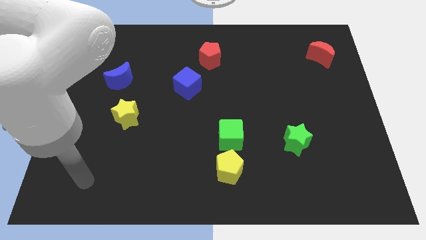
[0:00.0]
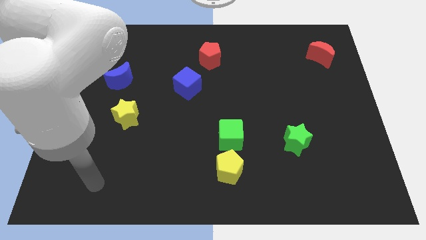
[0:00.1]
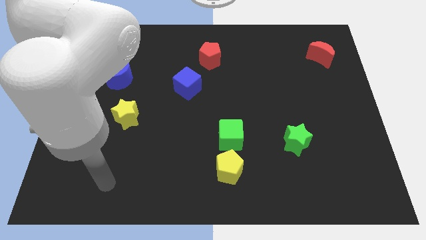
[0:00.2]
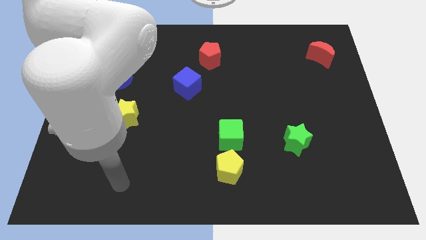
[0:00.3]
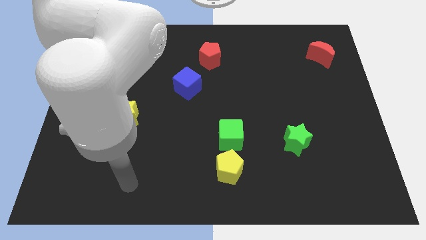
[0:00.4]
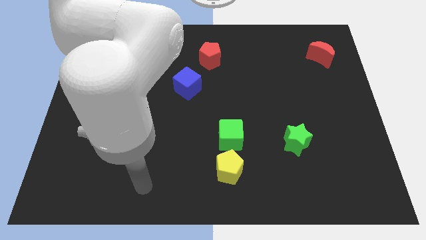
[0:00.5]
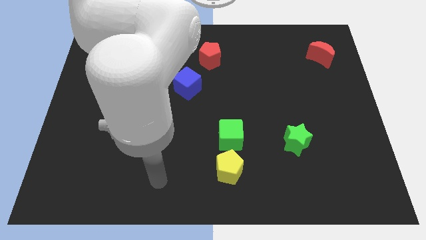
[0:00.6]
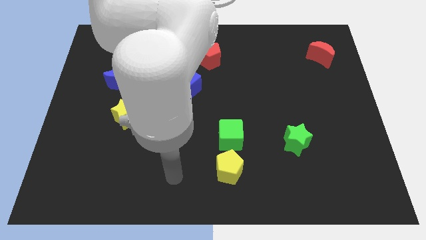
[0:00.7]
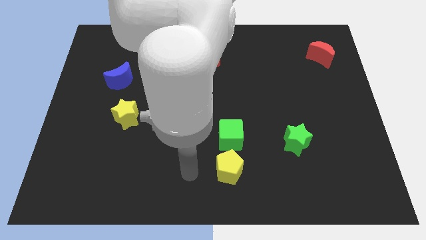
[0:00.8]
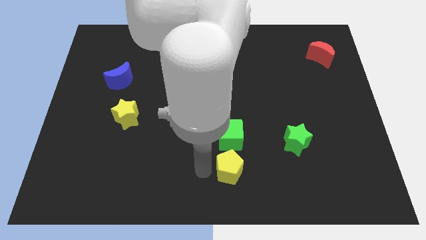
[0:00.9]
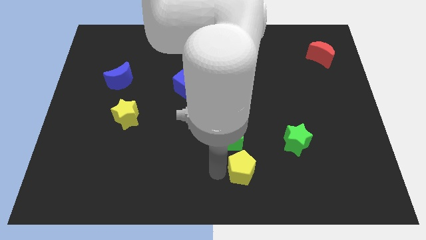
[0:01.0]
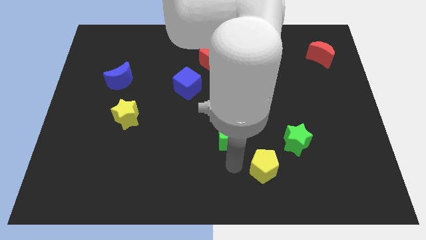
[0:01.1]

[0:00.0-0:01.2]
separate the green cube from the yellow pentagon

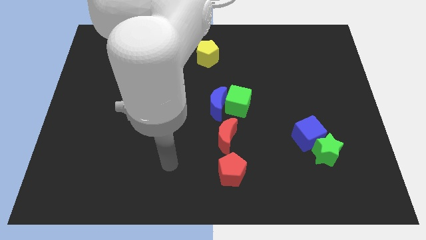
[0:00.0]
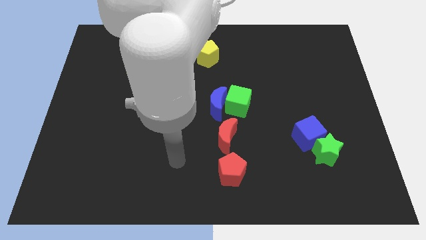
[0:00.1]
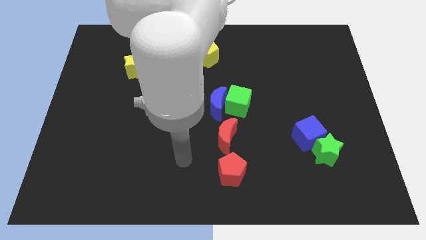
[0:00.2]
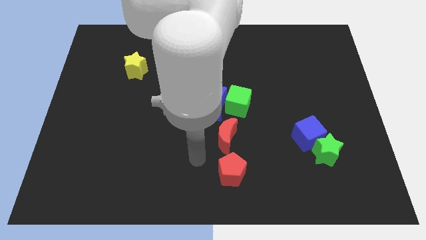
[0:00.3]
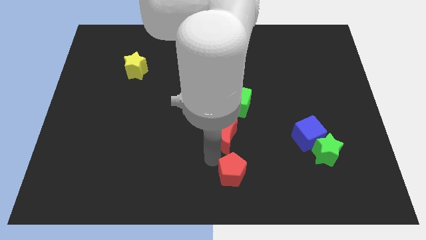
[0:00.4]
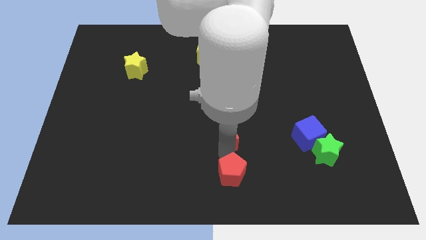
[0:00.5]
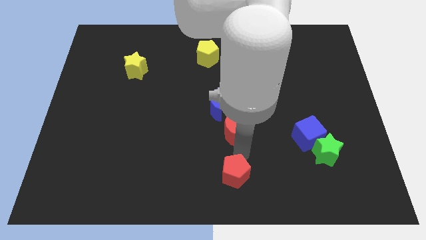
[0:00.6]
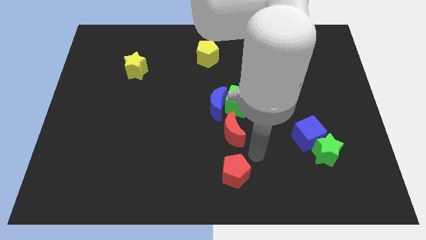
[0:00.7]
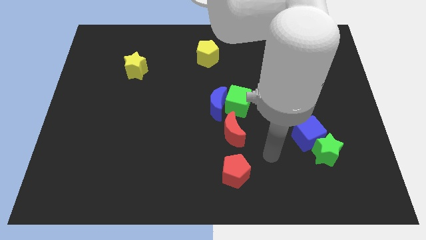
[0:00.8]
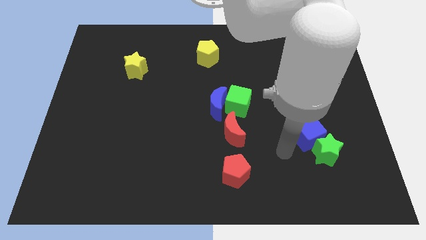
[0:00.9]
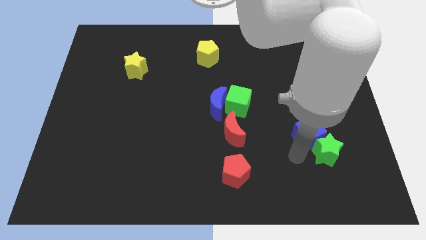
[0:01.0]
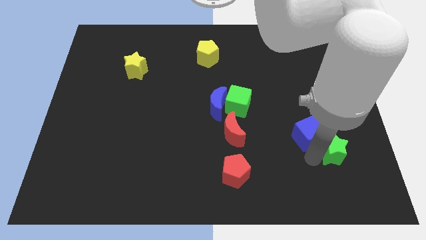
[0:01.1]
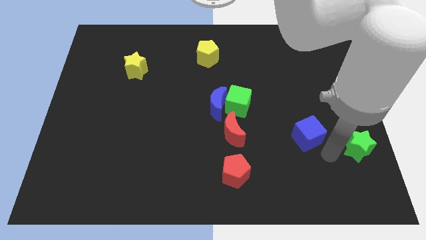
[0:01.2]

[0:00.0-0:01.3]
pull the blue cube apart from the green star

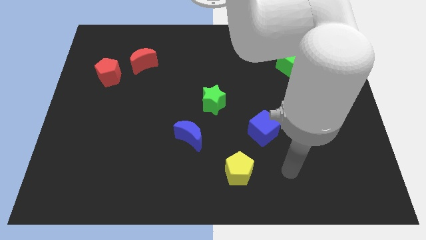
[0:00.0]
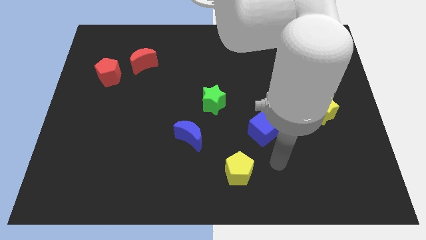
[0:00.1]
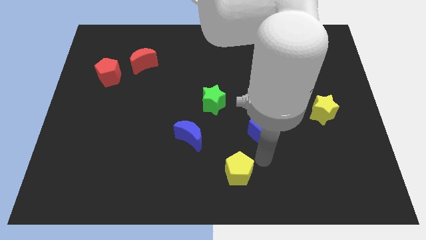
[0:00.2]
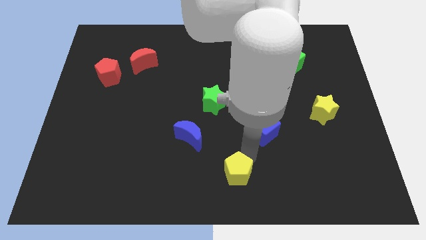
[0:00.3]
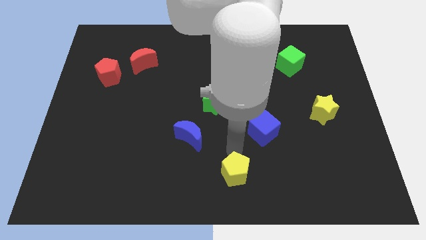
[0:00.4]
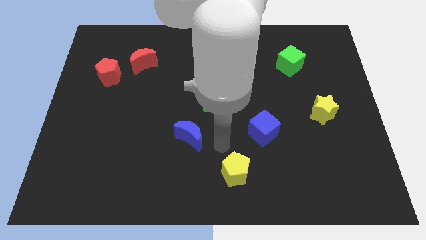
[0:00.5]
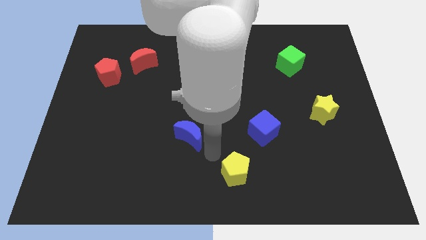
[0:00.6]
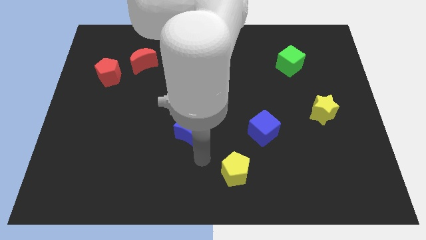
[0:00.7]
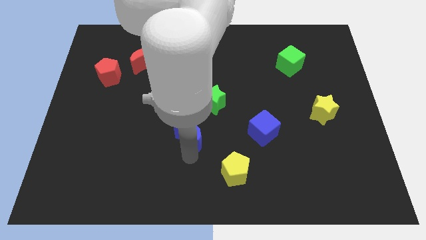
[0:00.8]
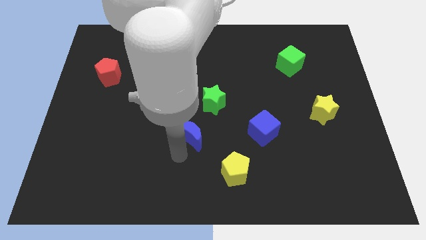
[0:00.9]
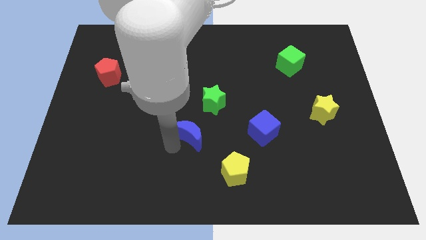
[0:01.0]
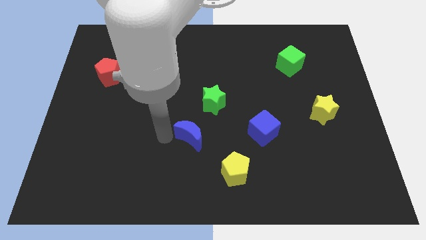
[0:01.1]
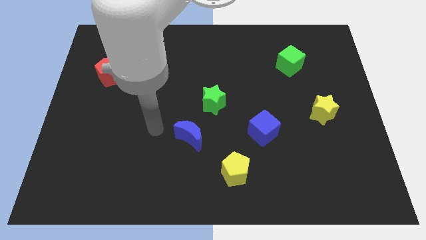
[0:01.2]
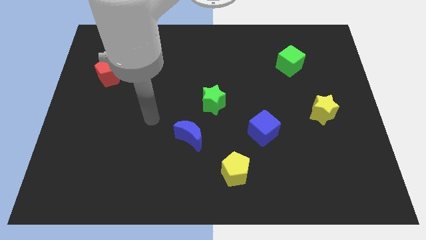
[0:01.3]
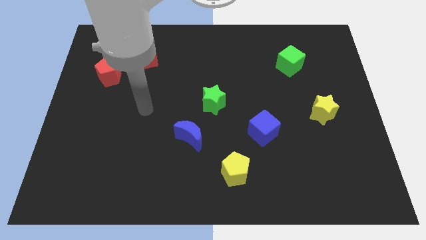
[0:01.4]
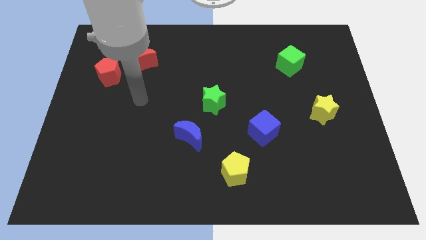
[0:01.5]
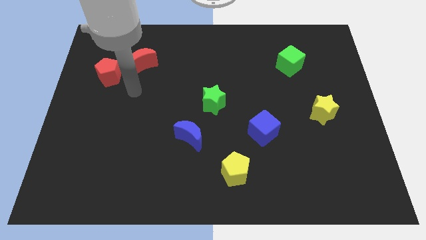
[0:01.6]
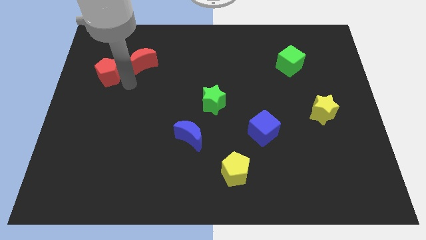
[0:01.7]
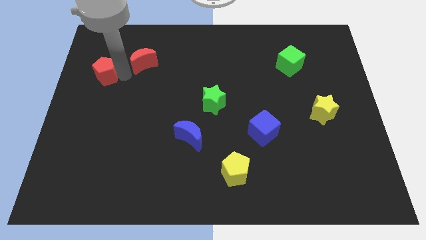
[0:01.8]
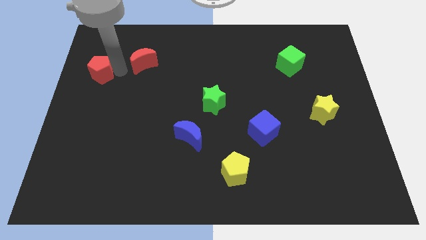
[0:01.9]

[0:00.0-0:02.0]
move the red moon away from the red pentagon

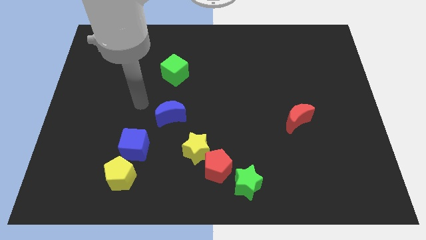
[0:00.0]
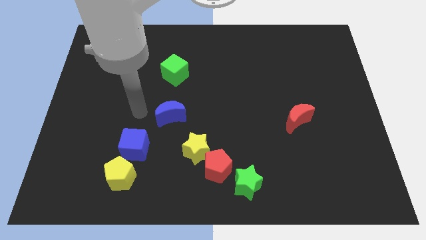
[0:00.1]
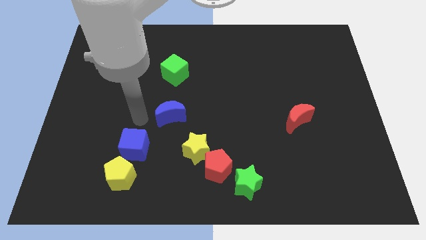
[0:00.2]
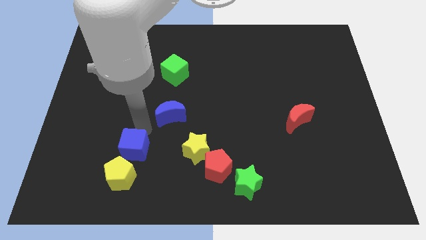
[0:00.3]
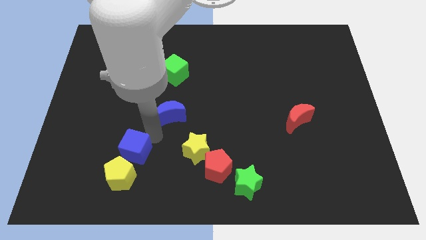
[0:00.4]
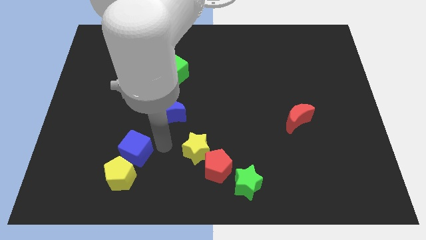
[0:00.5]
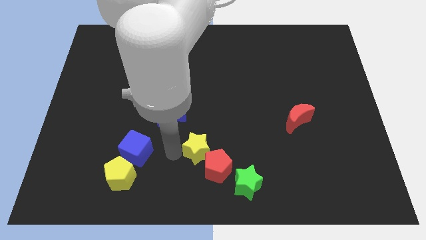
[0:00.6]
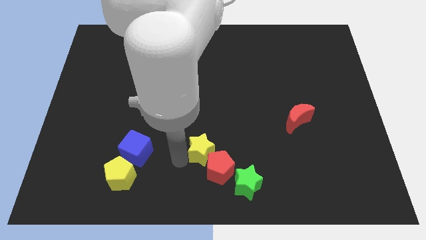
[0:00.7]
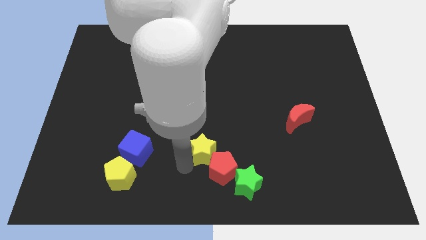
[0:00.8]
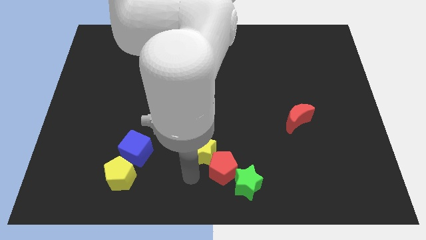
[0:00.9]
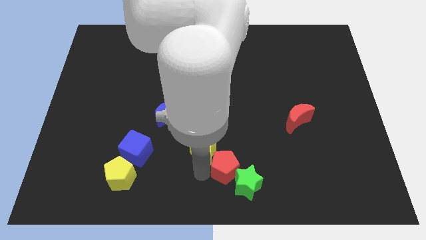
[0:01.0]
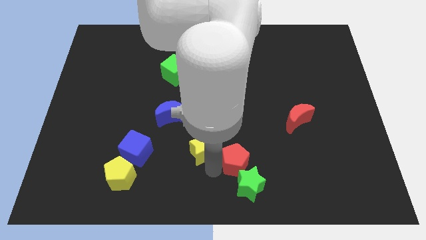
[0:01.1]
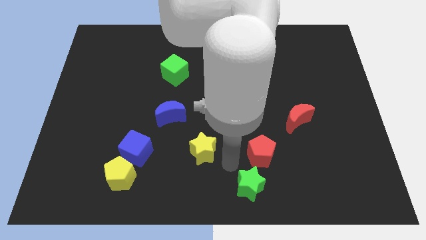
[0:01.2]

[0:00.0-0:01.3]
separate the yellow star from the red pentagon

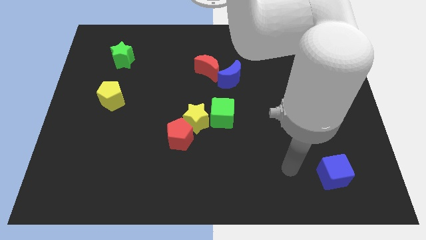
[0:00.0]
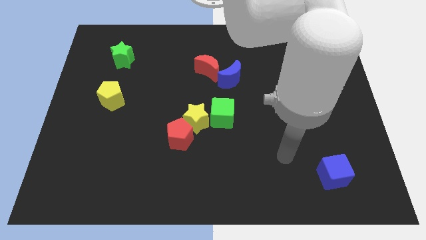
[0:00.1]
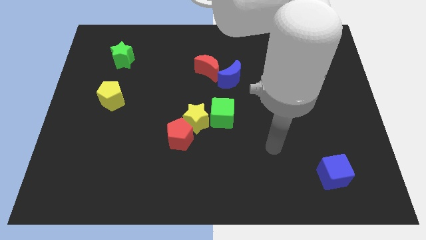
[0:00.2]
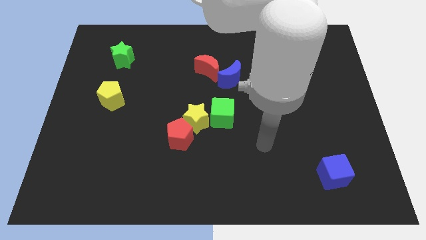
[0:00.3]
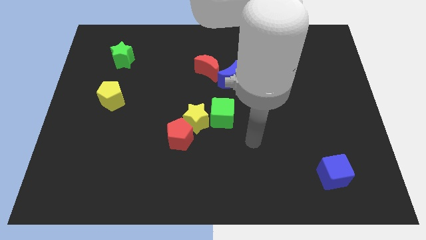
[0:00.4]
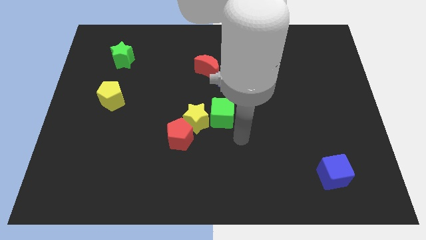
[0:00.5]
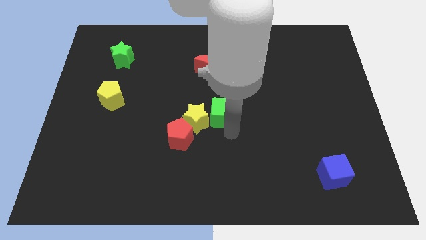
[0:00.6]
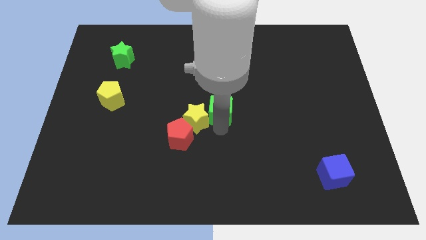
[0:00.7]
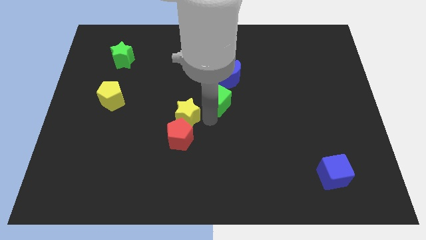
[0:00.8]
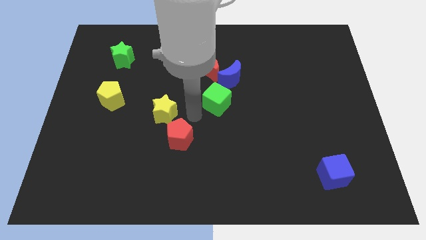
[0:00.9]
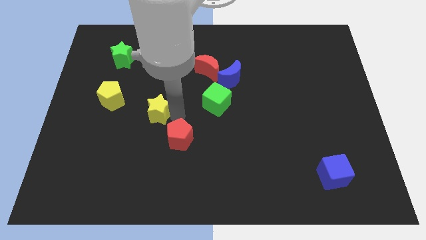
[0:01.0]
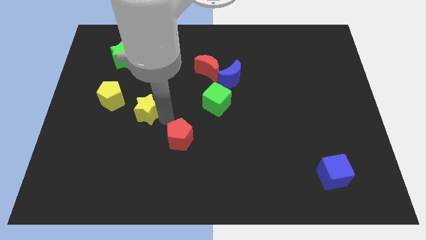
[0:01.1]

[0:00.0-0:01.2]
pull the red pentagon apart from the yellow star

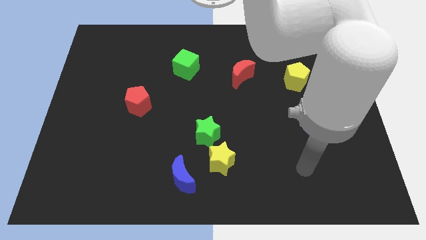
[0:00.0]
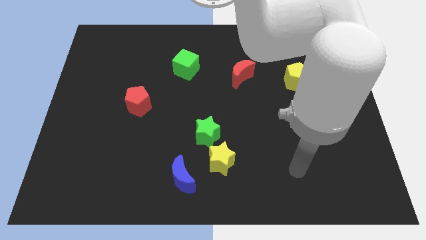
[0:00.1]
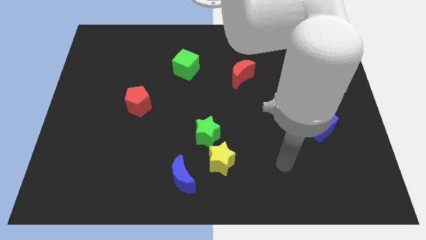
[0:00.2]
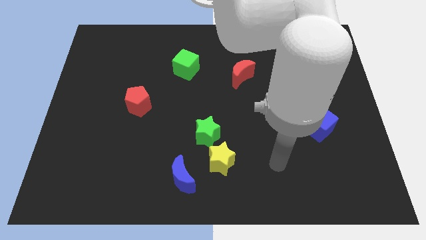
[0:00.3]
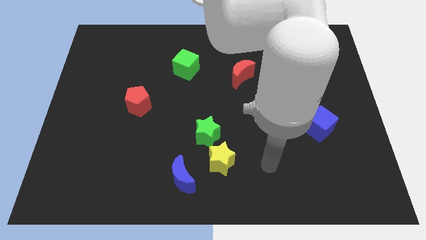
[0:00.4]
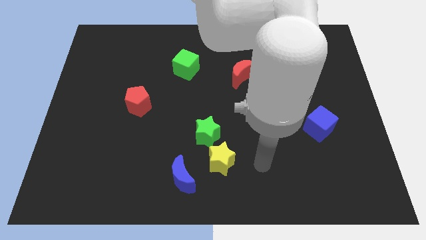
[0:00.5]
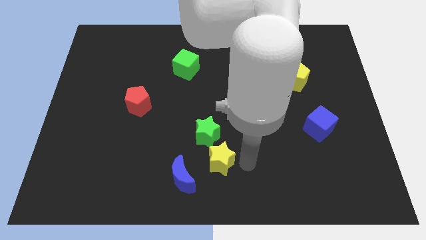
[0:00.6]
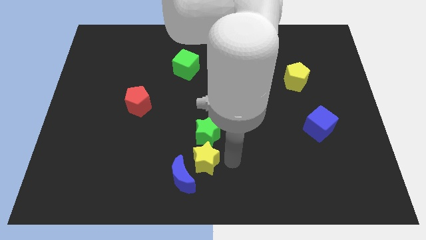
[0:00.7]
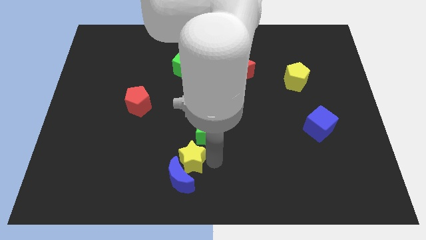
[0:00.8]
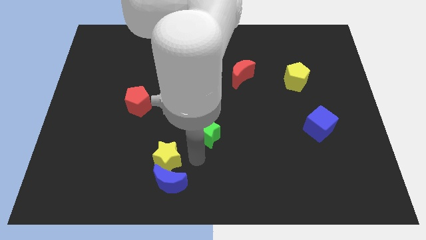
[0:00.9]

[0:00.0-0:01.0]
pull the green star apart from the yellow star

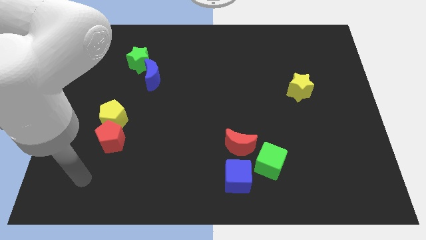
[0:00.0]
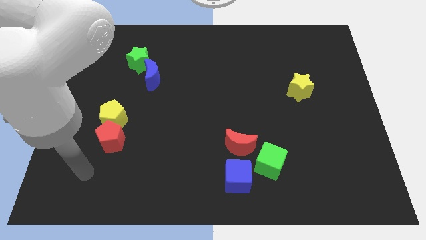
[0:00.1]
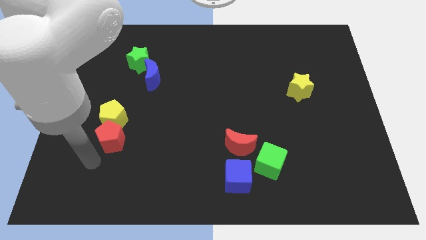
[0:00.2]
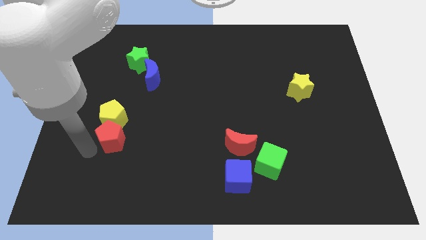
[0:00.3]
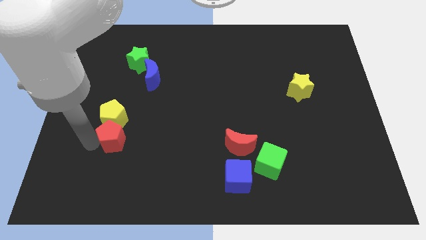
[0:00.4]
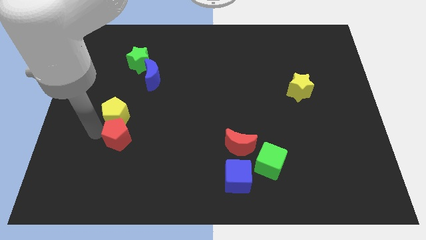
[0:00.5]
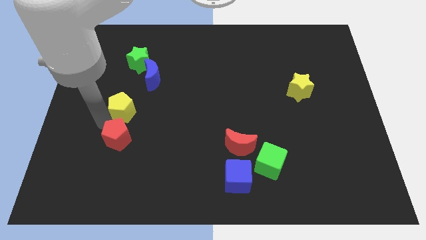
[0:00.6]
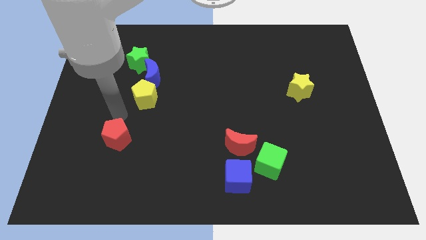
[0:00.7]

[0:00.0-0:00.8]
pull the red pentagon apart from the yellow pentagon

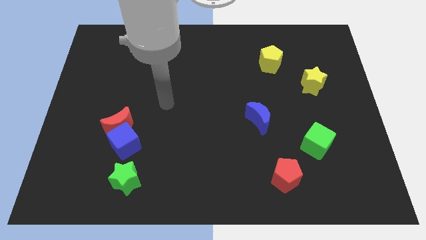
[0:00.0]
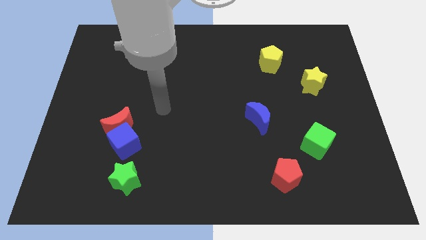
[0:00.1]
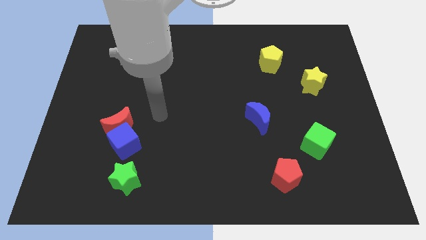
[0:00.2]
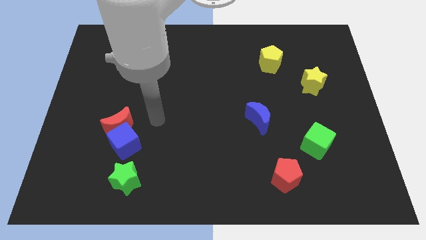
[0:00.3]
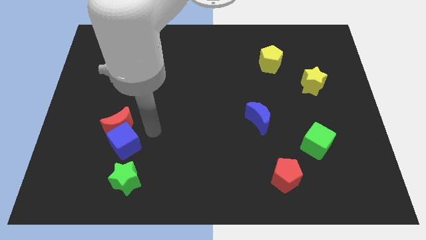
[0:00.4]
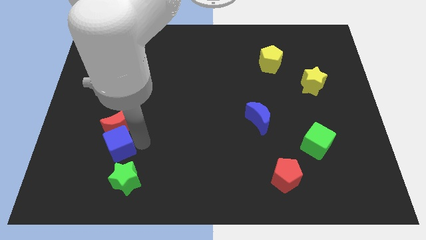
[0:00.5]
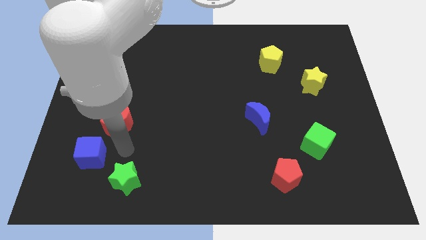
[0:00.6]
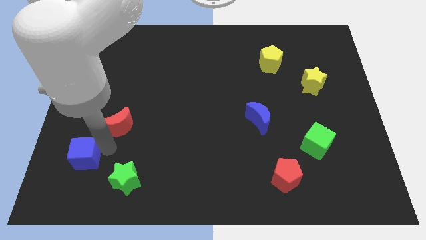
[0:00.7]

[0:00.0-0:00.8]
separate the red moon from the blue cube
